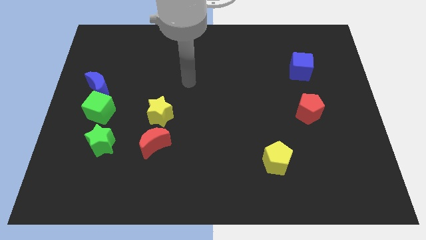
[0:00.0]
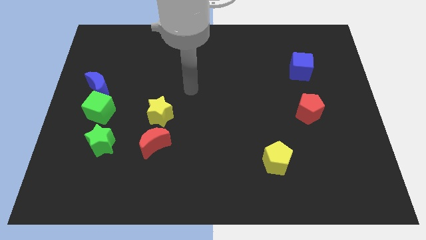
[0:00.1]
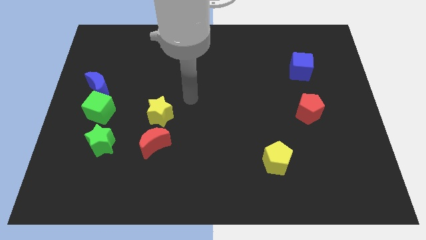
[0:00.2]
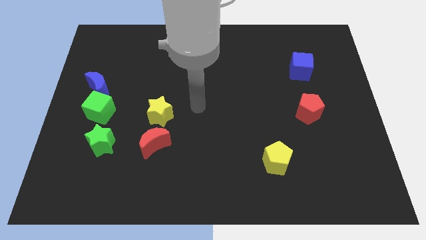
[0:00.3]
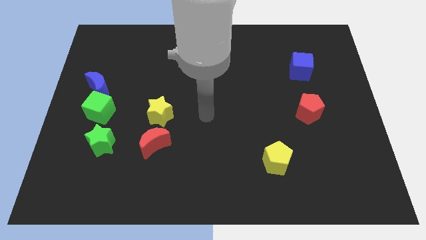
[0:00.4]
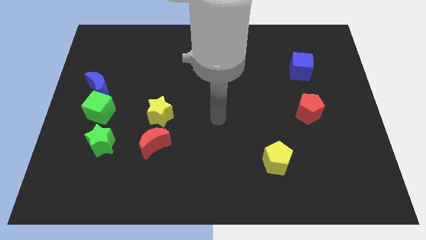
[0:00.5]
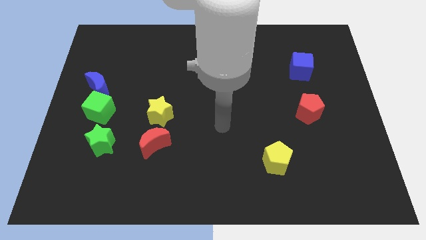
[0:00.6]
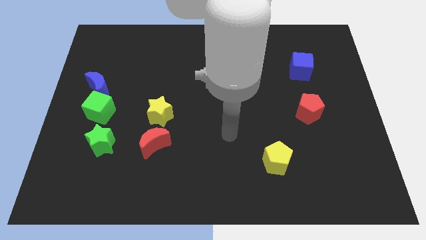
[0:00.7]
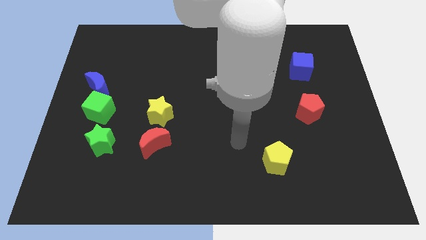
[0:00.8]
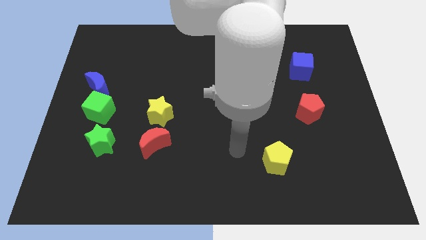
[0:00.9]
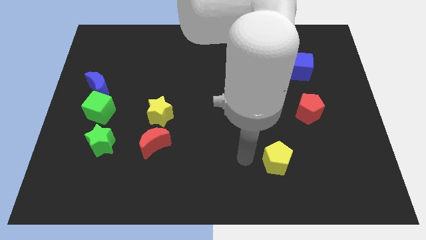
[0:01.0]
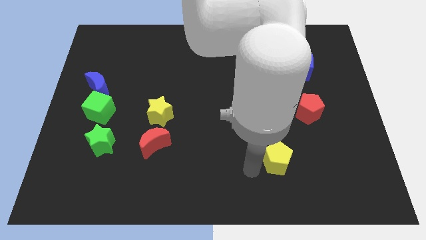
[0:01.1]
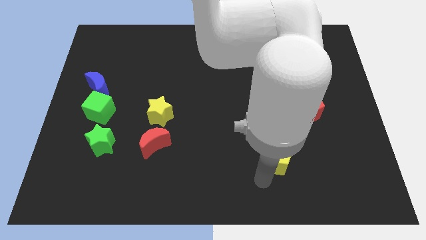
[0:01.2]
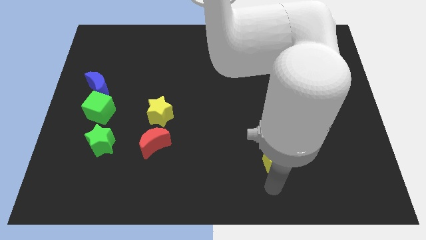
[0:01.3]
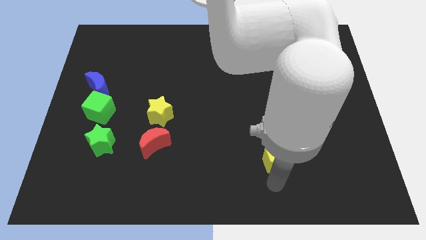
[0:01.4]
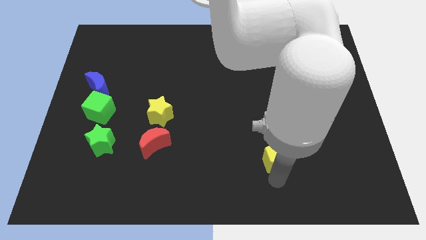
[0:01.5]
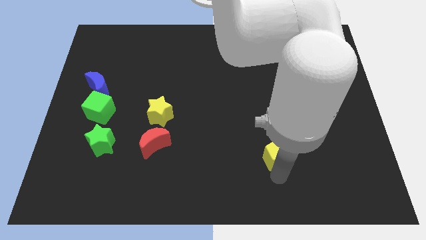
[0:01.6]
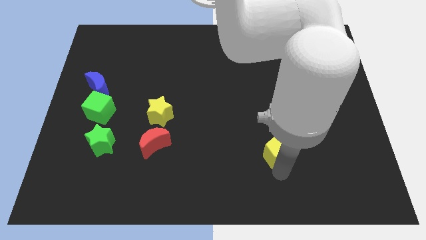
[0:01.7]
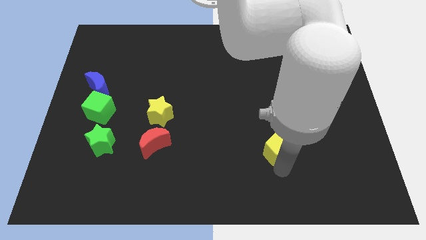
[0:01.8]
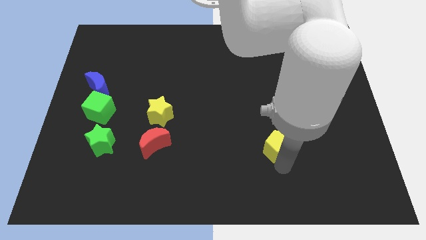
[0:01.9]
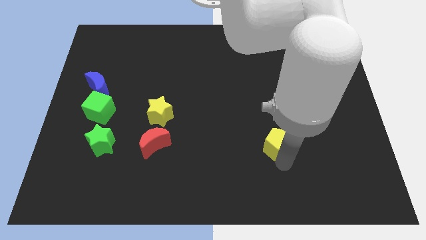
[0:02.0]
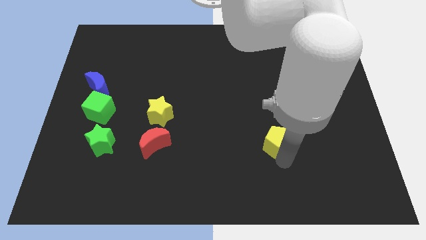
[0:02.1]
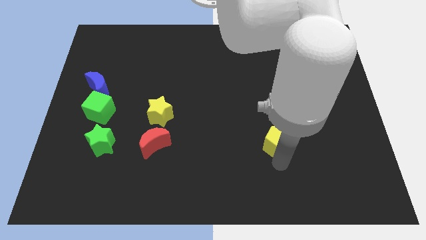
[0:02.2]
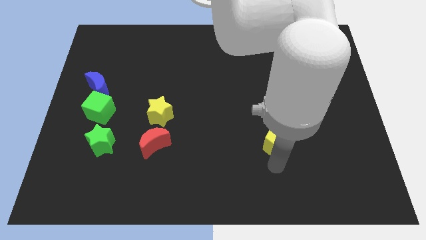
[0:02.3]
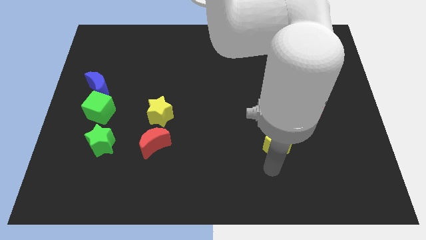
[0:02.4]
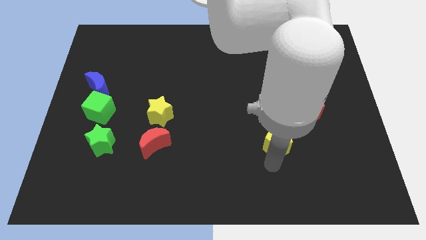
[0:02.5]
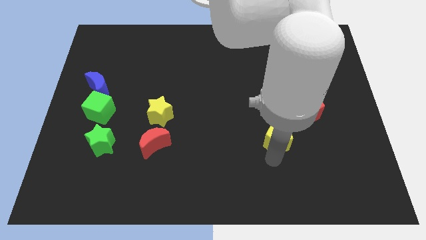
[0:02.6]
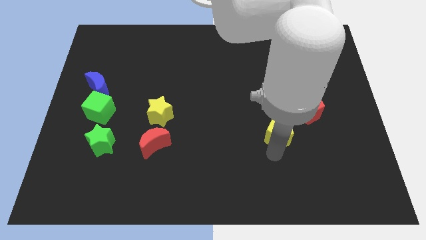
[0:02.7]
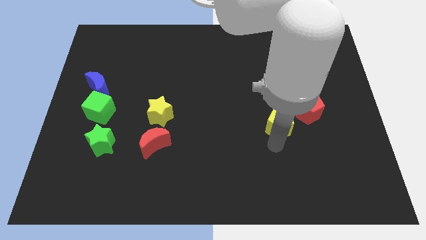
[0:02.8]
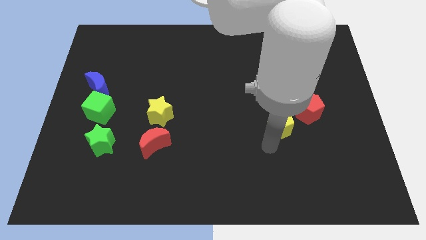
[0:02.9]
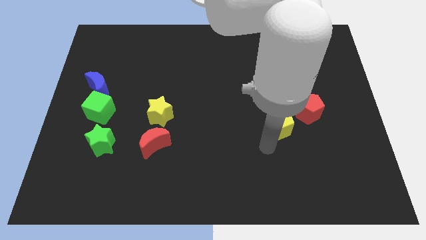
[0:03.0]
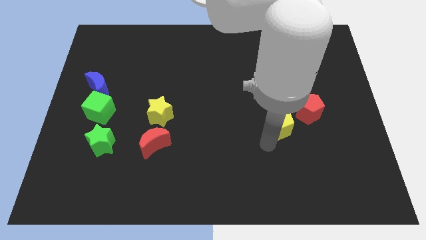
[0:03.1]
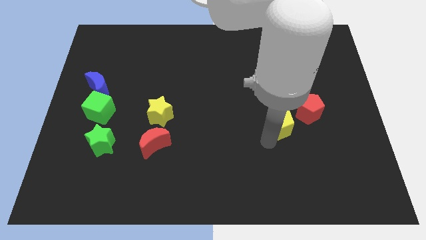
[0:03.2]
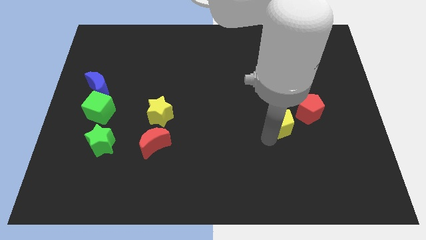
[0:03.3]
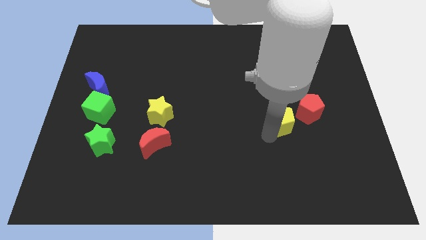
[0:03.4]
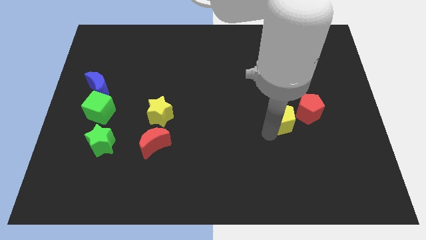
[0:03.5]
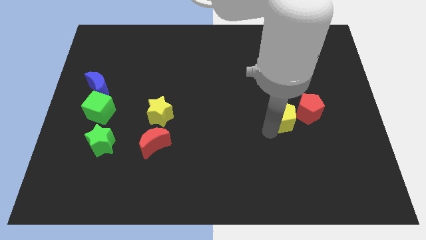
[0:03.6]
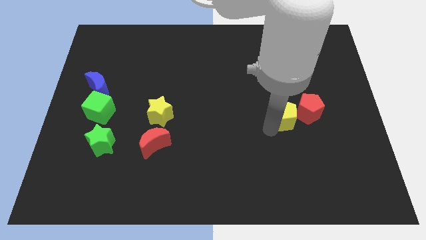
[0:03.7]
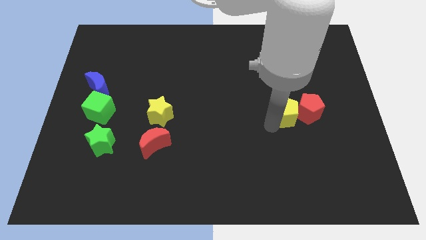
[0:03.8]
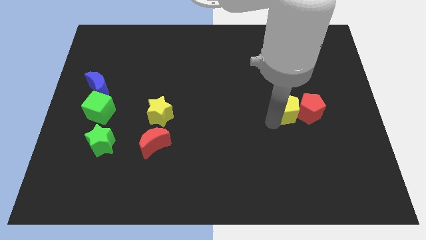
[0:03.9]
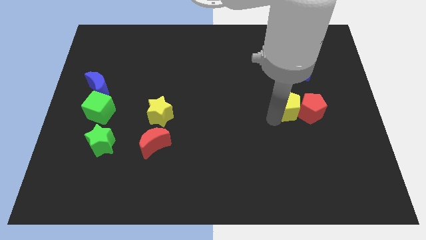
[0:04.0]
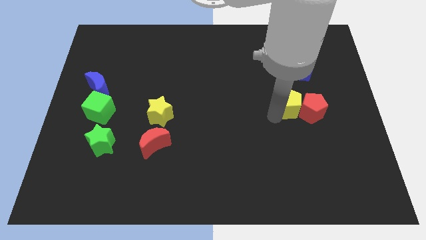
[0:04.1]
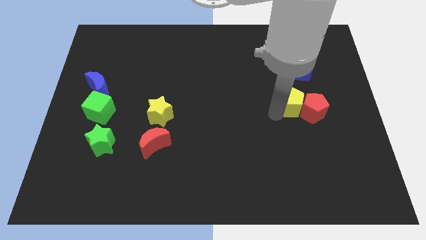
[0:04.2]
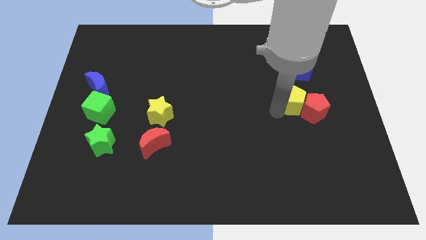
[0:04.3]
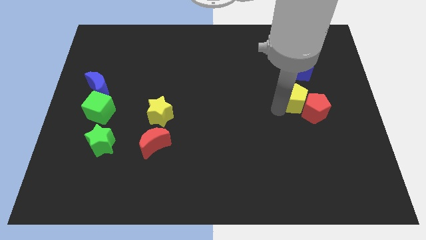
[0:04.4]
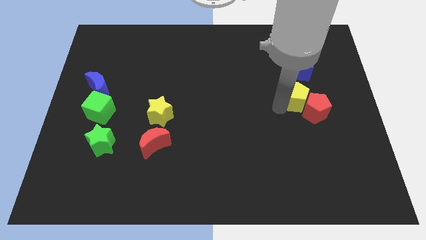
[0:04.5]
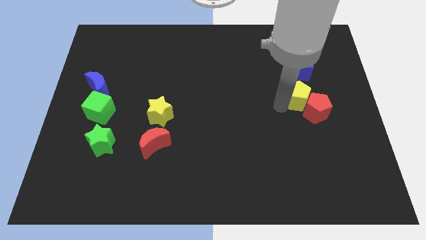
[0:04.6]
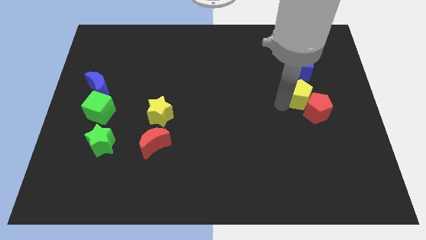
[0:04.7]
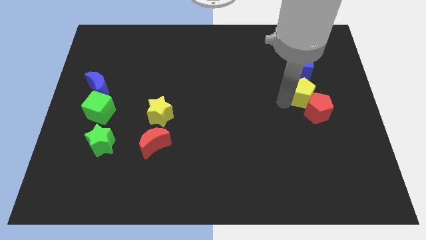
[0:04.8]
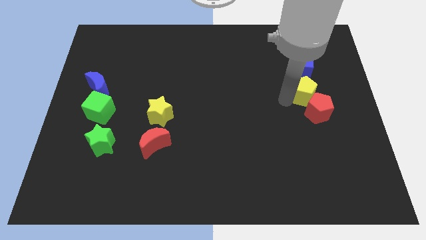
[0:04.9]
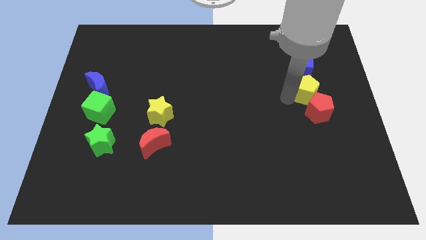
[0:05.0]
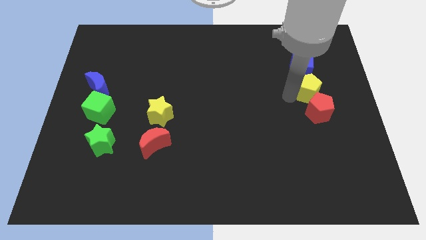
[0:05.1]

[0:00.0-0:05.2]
put the yellow pentagon to the bottom right side of the blue cube

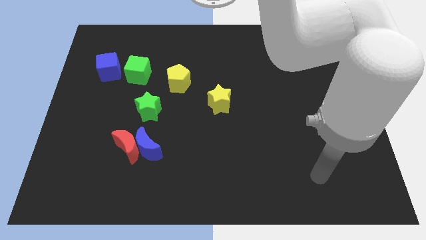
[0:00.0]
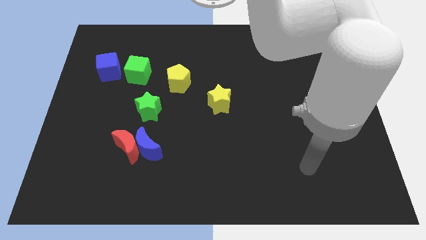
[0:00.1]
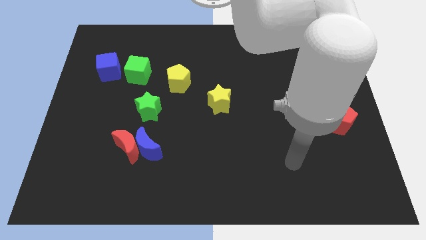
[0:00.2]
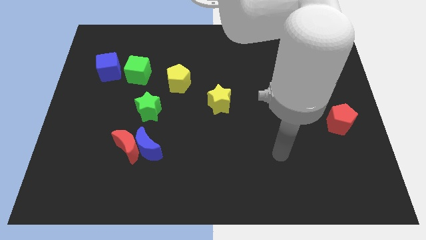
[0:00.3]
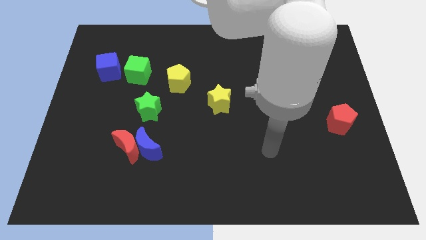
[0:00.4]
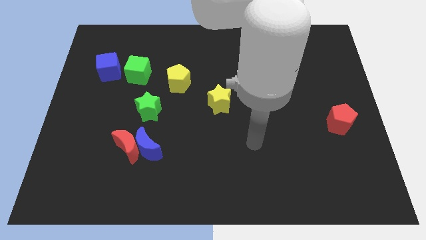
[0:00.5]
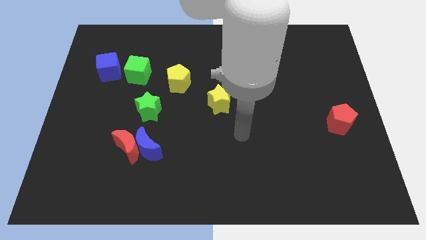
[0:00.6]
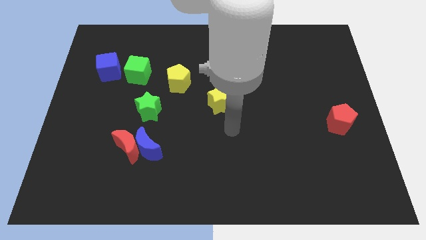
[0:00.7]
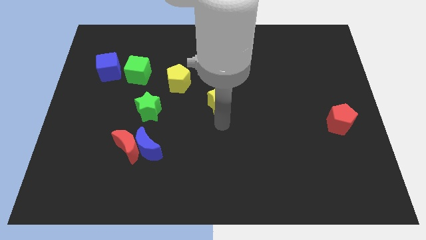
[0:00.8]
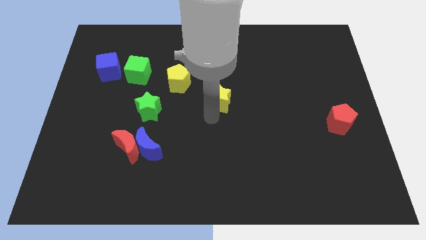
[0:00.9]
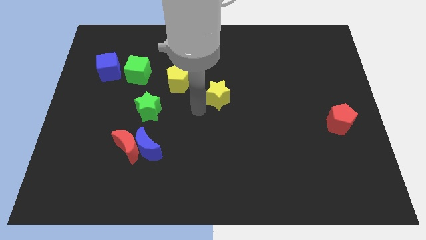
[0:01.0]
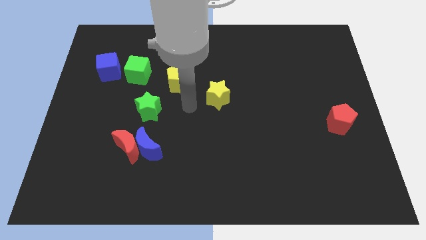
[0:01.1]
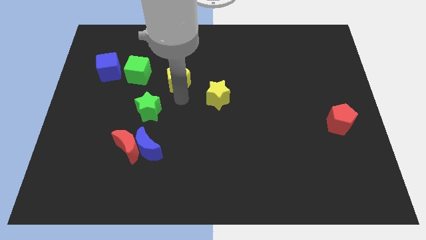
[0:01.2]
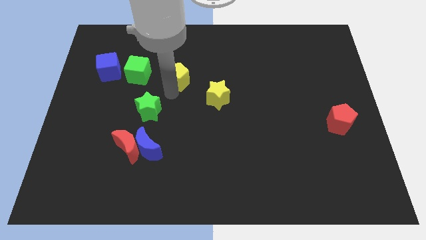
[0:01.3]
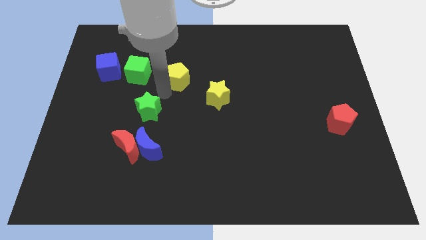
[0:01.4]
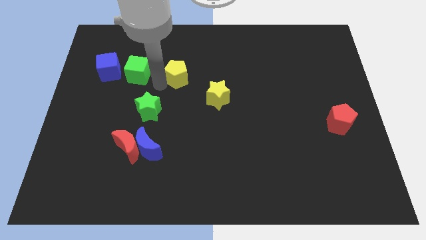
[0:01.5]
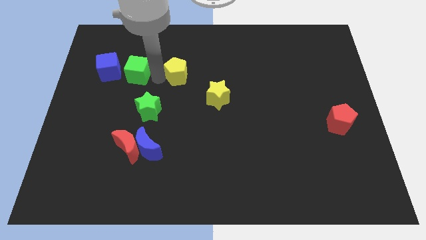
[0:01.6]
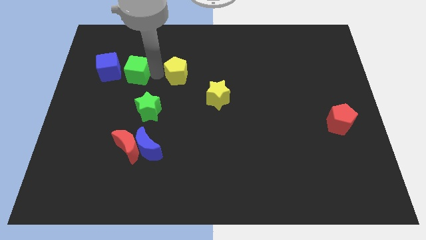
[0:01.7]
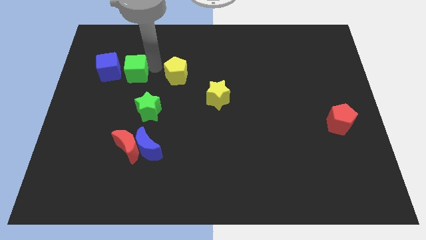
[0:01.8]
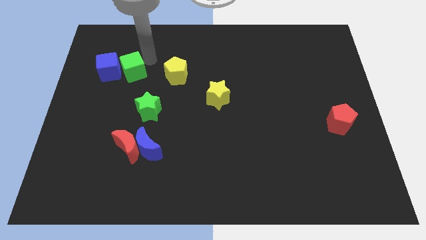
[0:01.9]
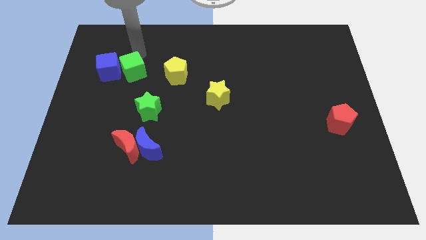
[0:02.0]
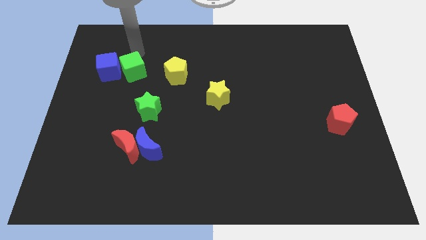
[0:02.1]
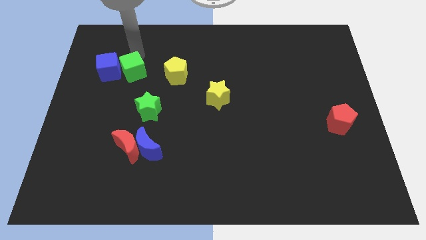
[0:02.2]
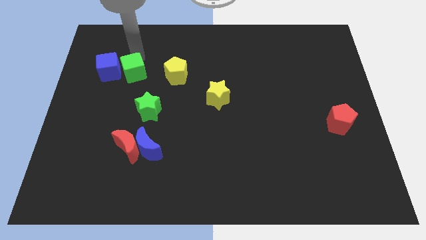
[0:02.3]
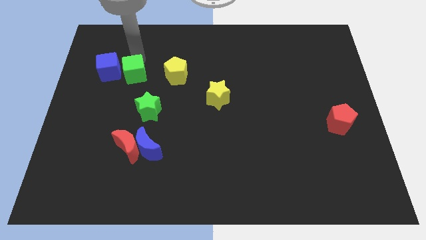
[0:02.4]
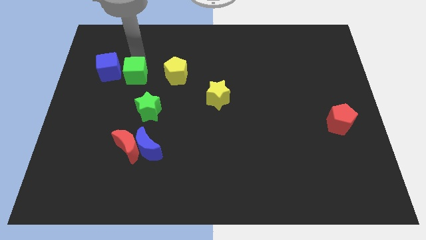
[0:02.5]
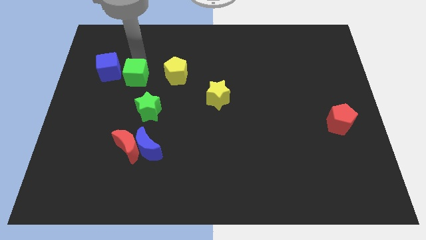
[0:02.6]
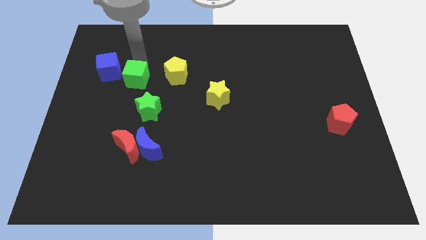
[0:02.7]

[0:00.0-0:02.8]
put the green cube diagonally up and to the left of the green star
